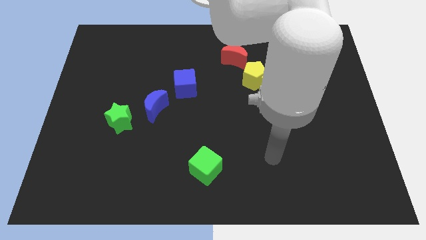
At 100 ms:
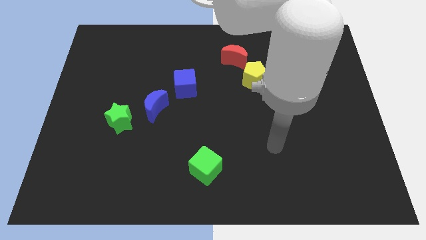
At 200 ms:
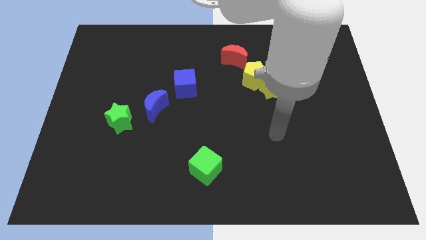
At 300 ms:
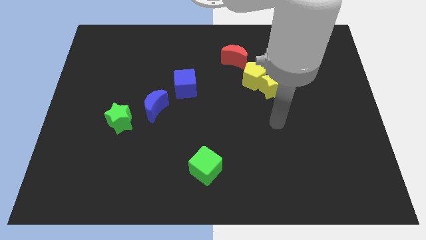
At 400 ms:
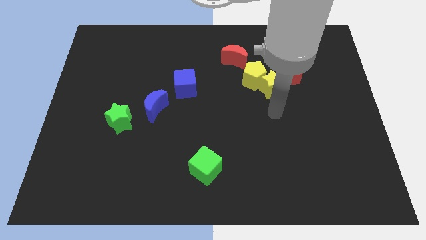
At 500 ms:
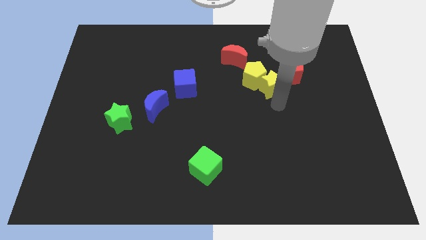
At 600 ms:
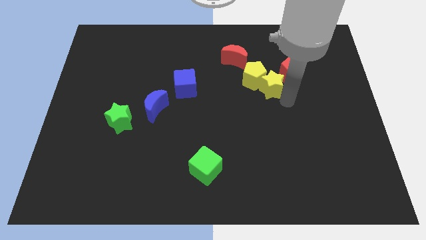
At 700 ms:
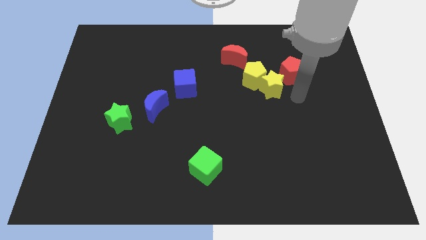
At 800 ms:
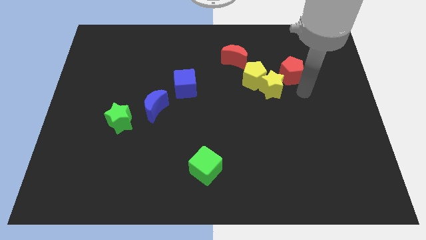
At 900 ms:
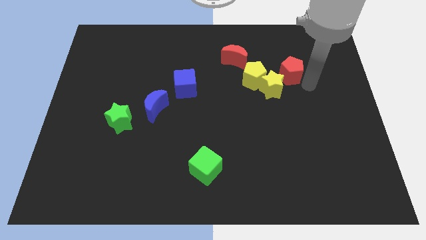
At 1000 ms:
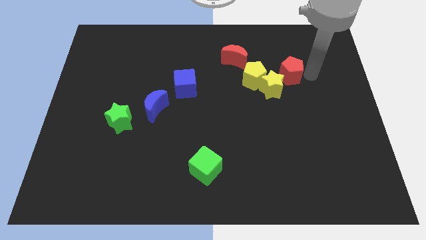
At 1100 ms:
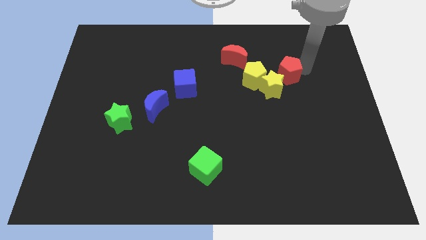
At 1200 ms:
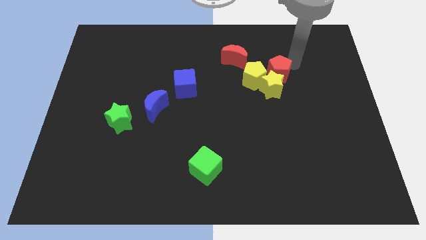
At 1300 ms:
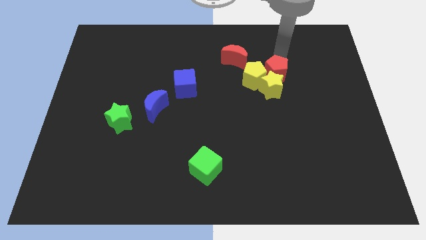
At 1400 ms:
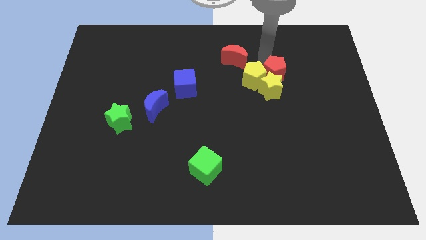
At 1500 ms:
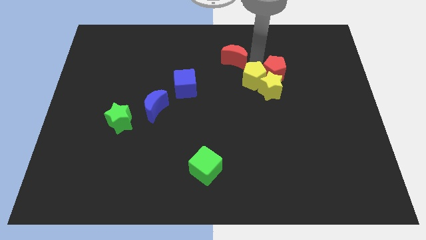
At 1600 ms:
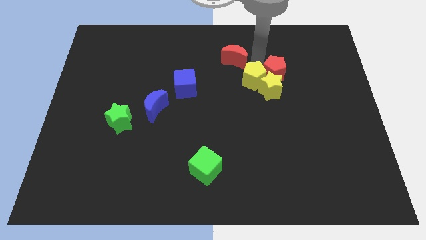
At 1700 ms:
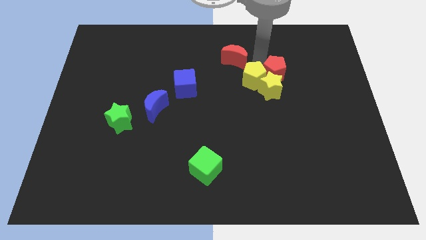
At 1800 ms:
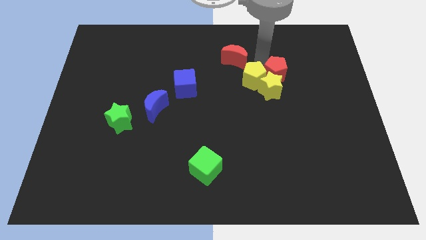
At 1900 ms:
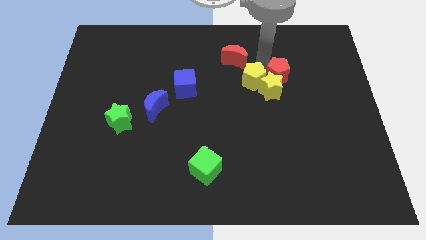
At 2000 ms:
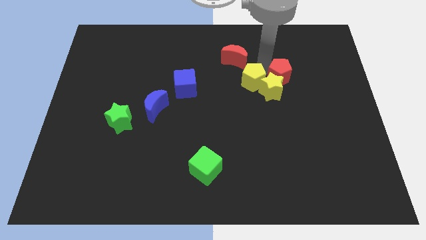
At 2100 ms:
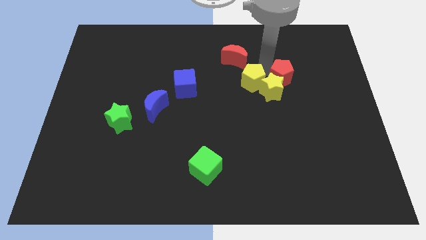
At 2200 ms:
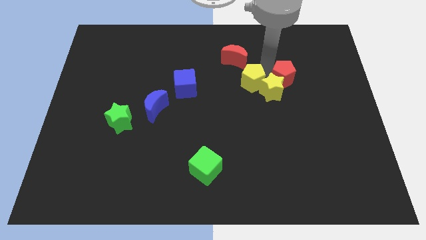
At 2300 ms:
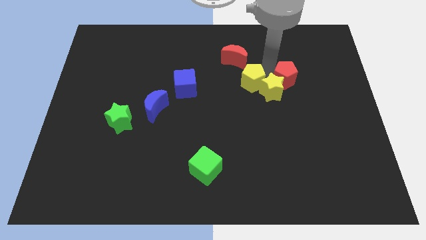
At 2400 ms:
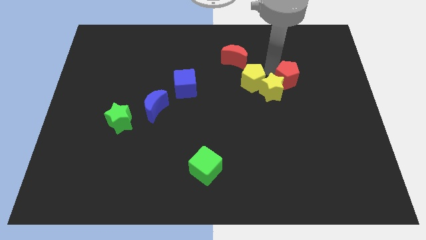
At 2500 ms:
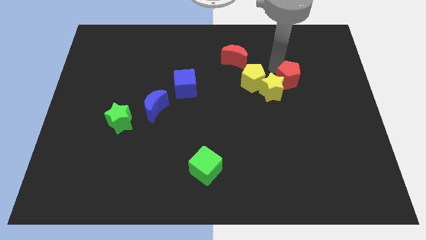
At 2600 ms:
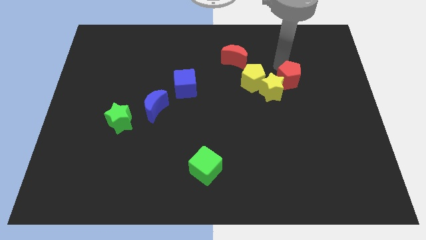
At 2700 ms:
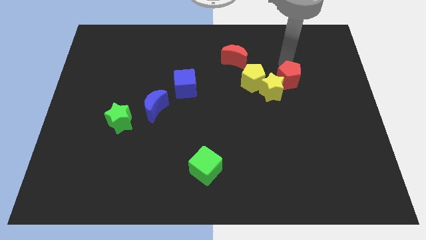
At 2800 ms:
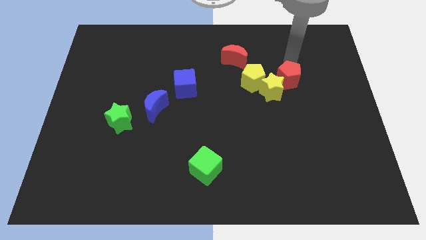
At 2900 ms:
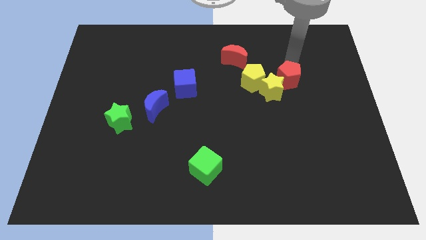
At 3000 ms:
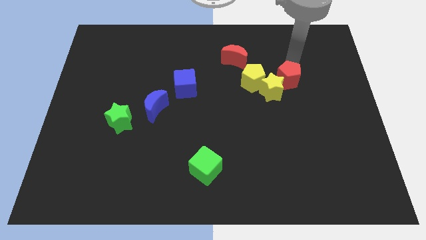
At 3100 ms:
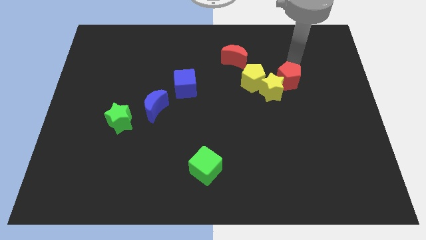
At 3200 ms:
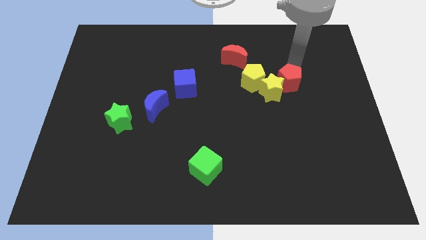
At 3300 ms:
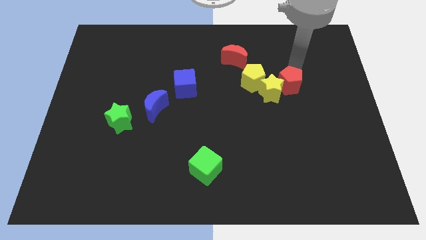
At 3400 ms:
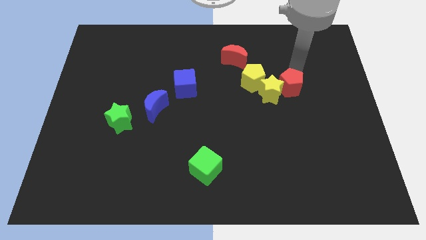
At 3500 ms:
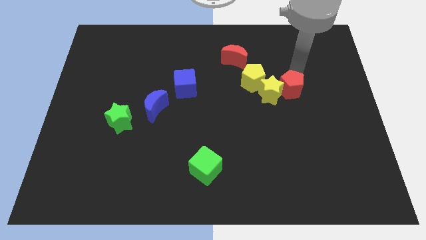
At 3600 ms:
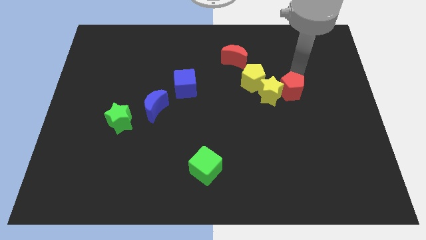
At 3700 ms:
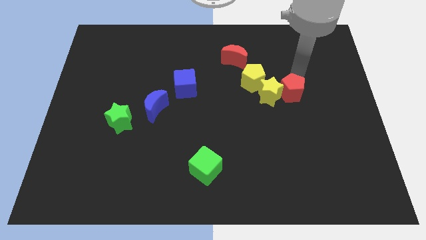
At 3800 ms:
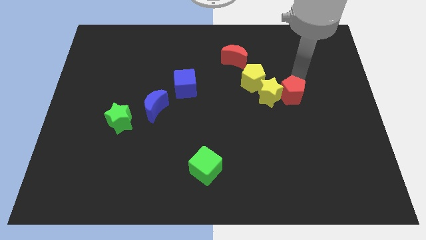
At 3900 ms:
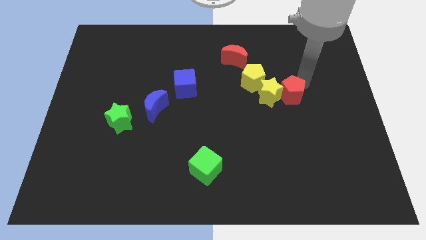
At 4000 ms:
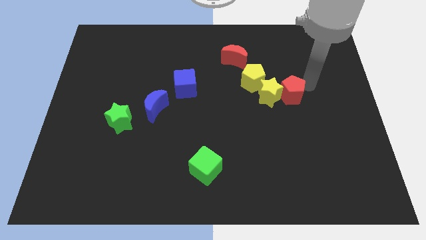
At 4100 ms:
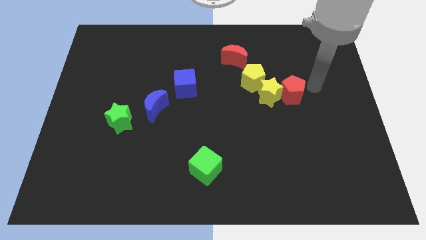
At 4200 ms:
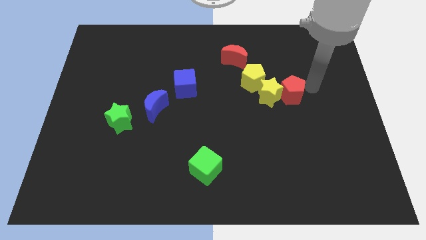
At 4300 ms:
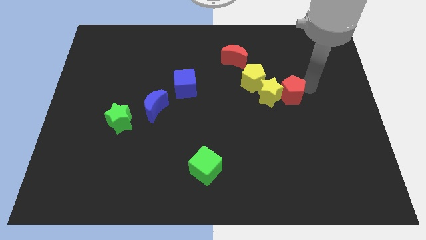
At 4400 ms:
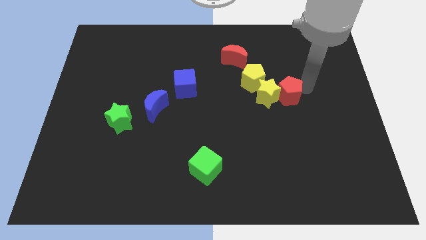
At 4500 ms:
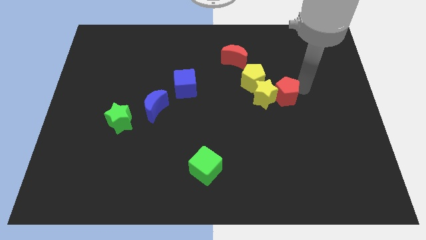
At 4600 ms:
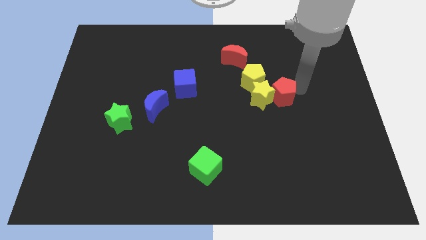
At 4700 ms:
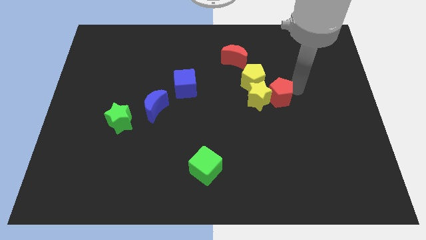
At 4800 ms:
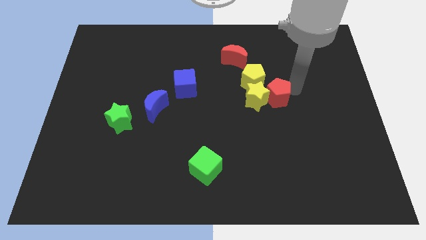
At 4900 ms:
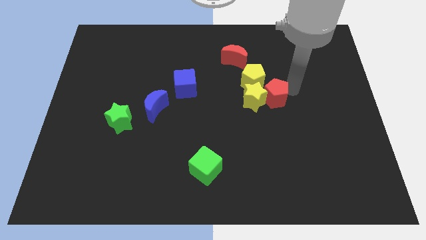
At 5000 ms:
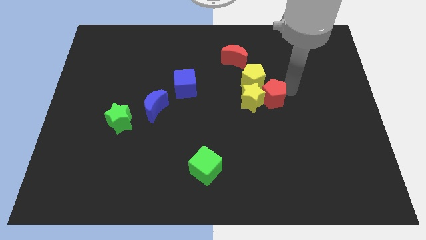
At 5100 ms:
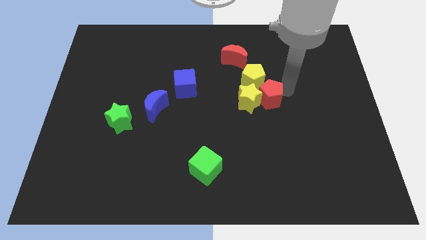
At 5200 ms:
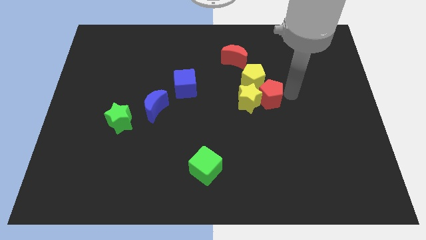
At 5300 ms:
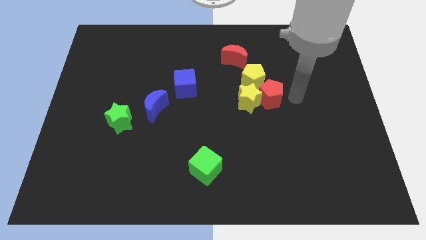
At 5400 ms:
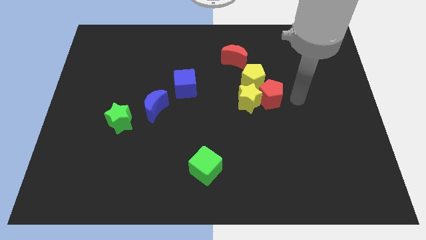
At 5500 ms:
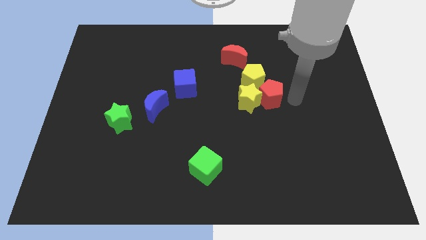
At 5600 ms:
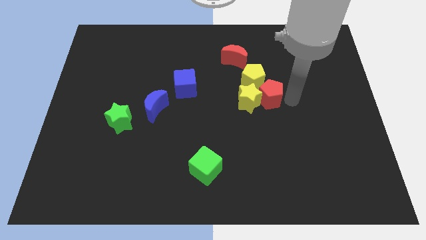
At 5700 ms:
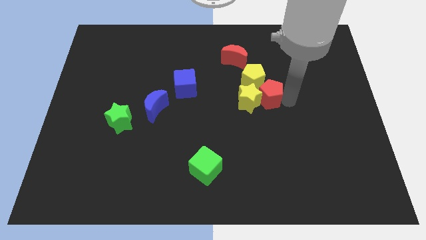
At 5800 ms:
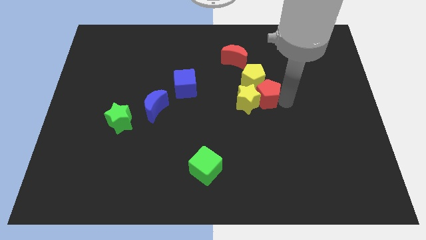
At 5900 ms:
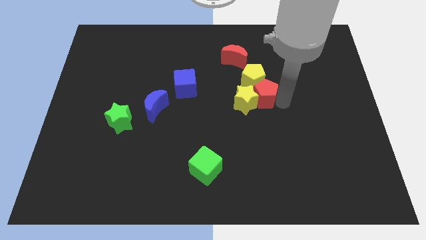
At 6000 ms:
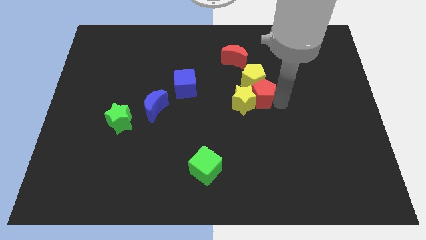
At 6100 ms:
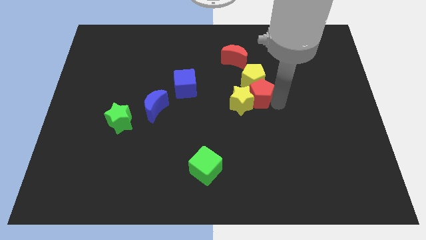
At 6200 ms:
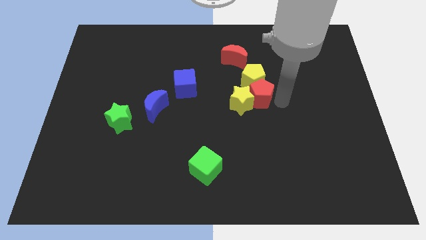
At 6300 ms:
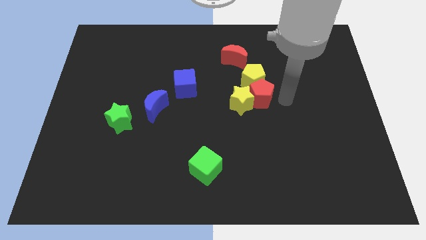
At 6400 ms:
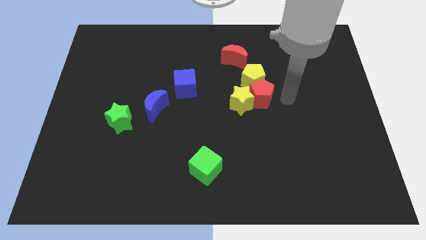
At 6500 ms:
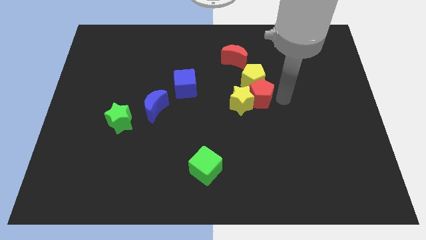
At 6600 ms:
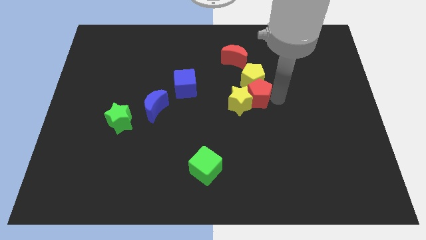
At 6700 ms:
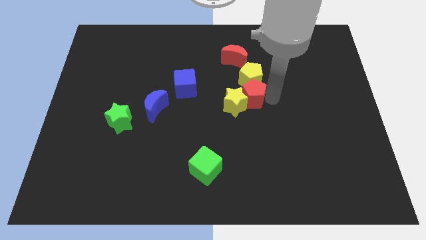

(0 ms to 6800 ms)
slightly push the red pentagon to the left

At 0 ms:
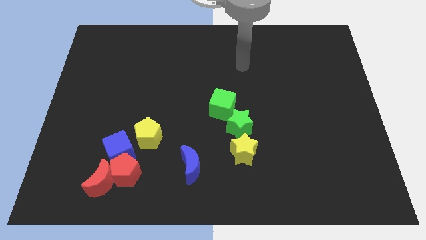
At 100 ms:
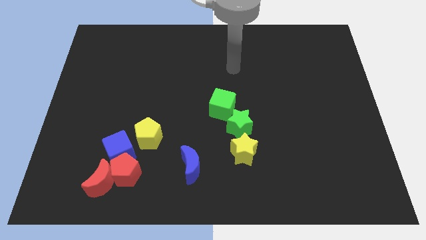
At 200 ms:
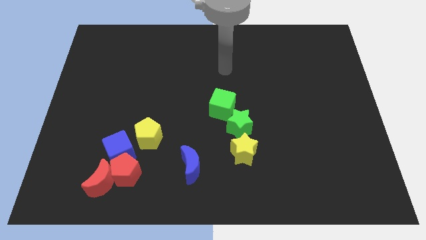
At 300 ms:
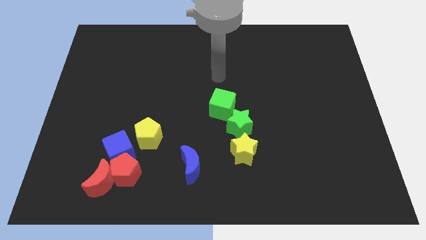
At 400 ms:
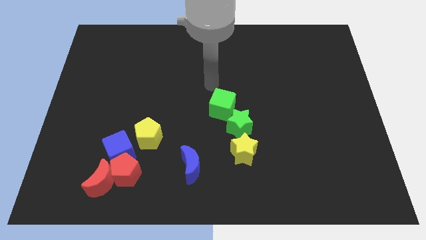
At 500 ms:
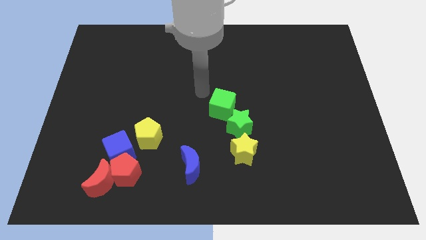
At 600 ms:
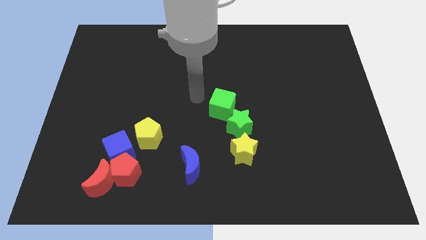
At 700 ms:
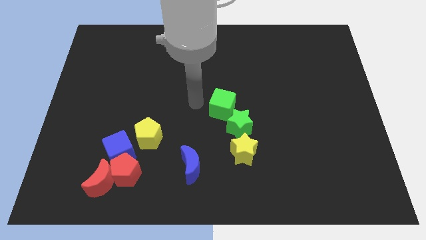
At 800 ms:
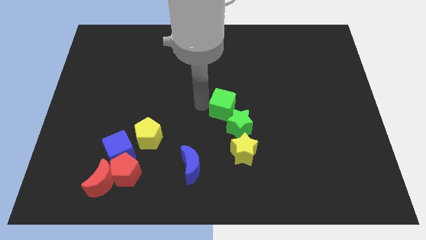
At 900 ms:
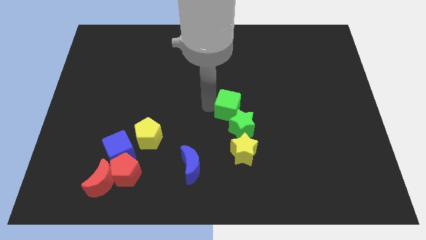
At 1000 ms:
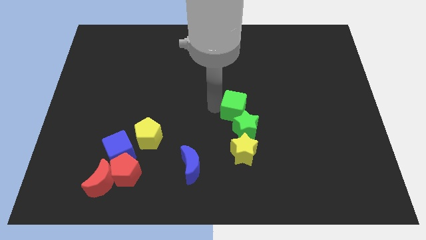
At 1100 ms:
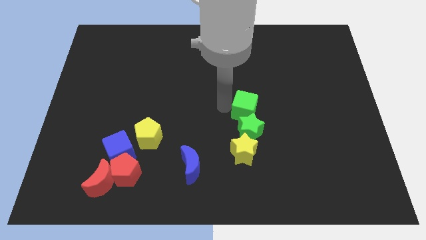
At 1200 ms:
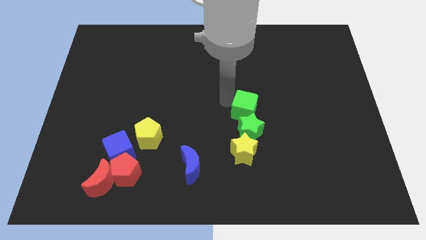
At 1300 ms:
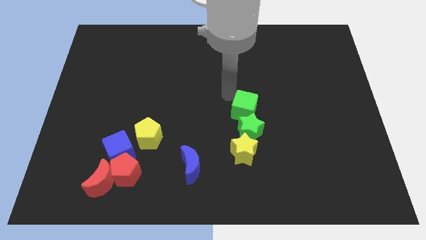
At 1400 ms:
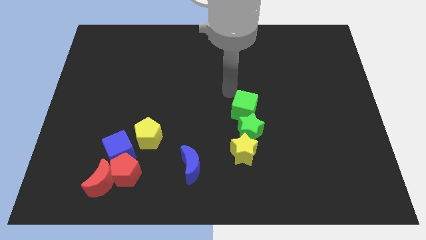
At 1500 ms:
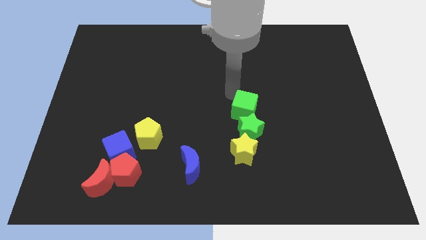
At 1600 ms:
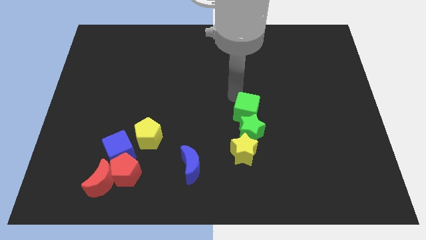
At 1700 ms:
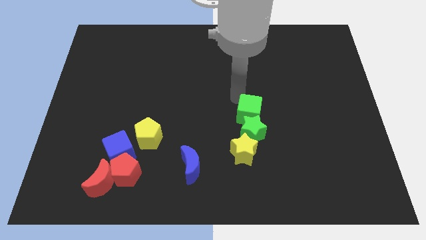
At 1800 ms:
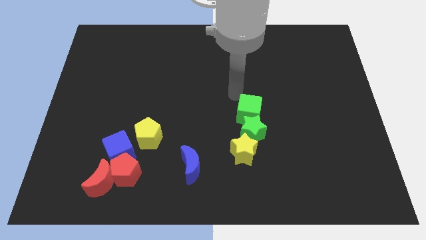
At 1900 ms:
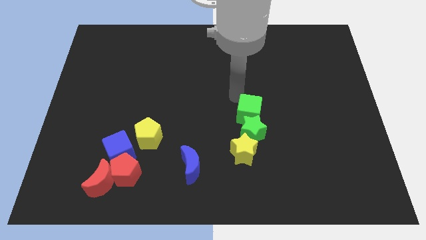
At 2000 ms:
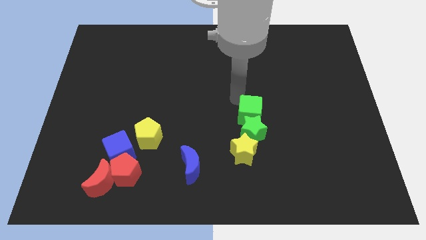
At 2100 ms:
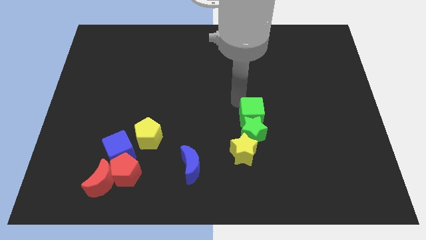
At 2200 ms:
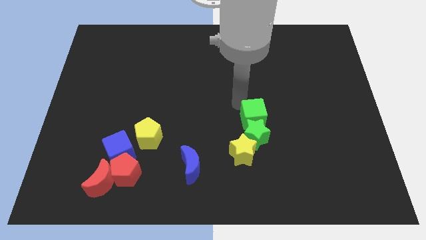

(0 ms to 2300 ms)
move the green cube downwards and to the right a bit
